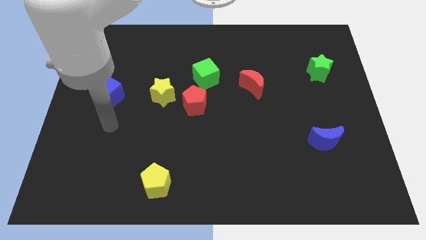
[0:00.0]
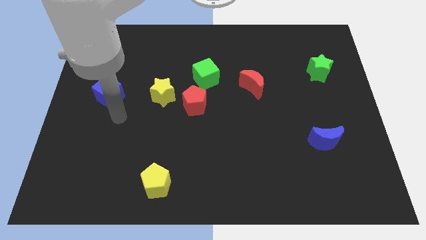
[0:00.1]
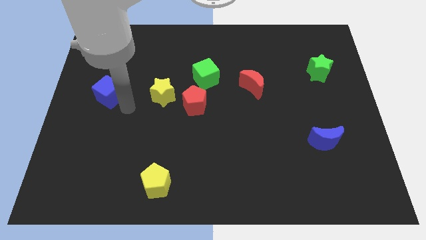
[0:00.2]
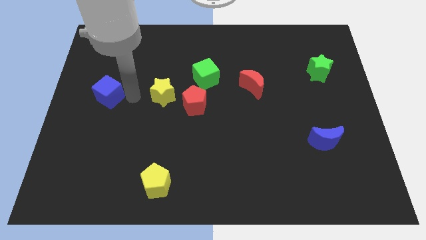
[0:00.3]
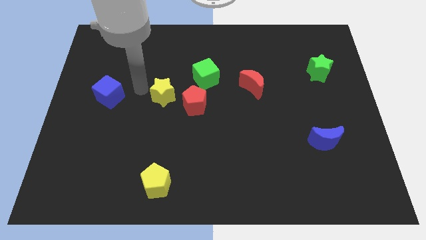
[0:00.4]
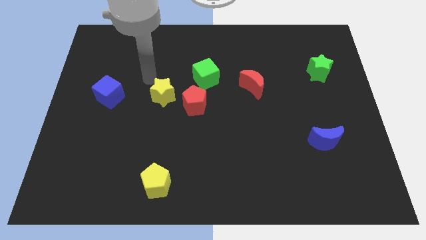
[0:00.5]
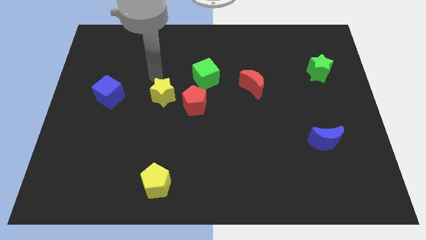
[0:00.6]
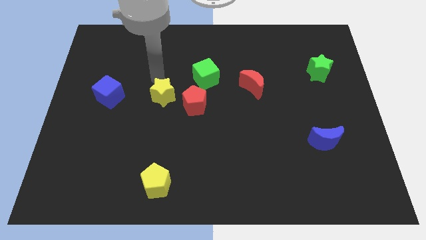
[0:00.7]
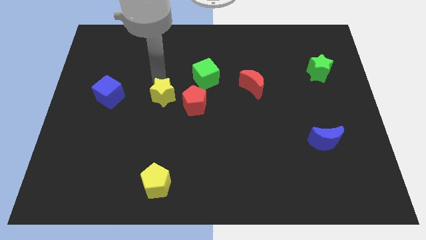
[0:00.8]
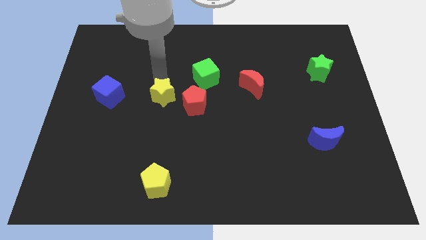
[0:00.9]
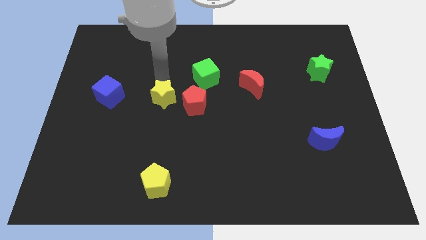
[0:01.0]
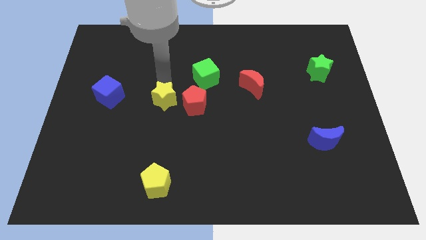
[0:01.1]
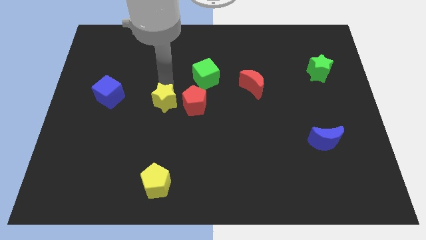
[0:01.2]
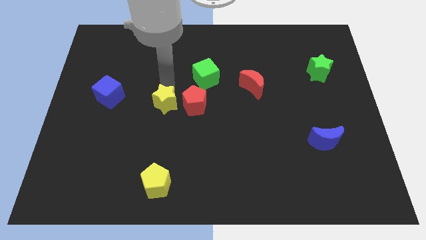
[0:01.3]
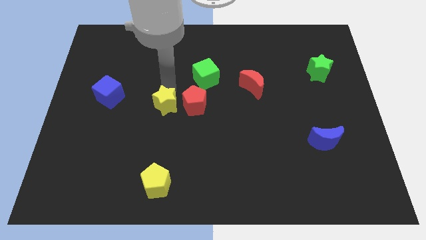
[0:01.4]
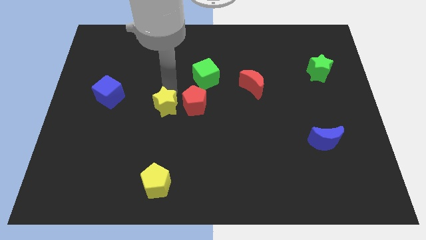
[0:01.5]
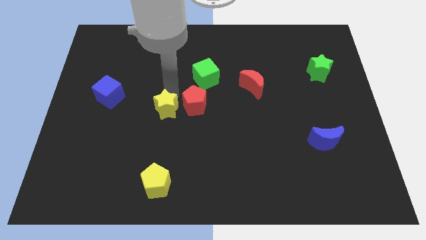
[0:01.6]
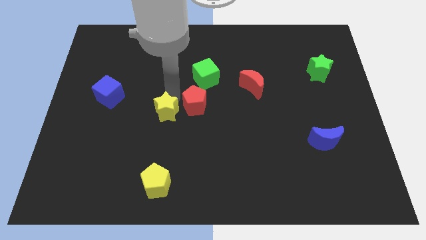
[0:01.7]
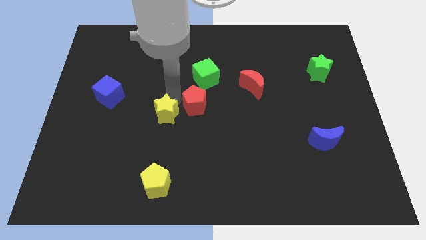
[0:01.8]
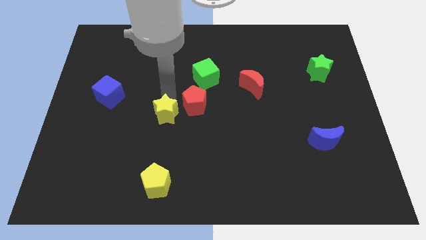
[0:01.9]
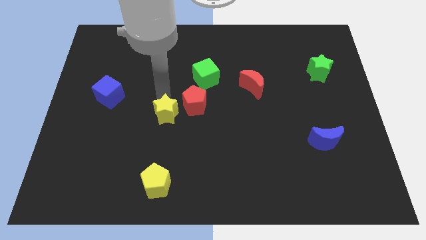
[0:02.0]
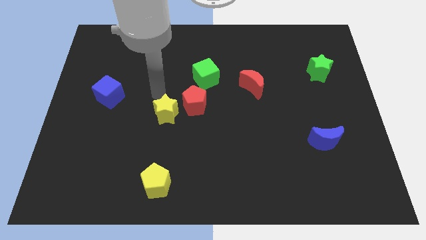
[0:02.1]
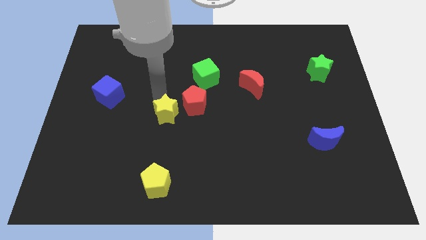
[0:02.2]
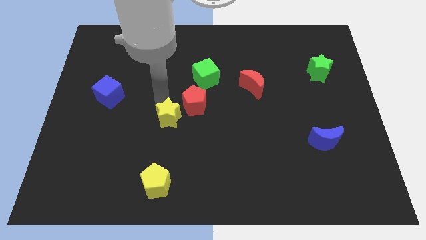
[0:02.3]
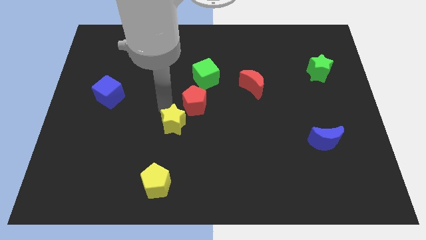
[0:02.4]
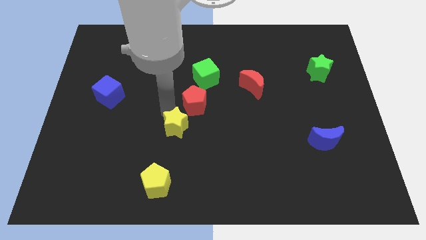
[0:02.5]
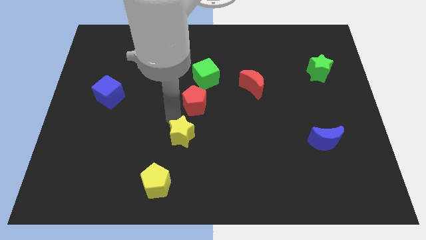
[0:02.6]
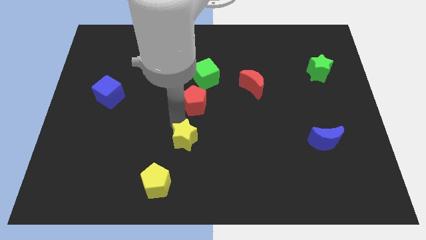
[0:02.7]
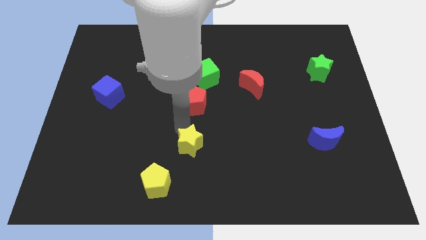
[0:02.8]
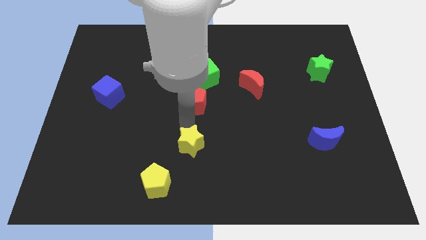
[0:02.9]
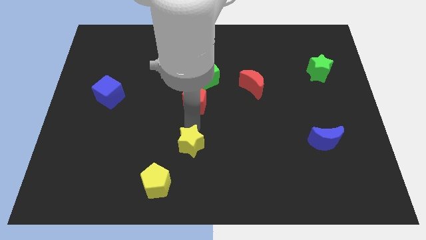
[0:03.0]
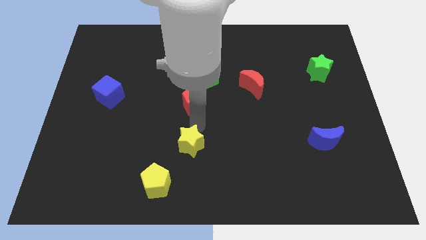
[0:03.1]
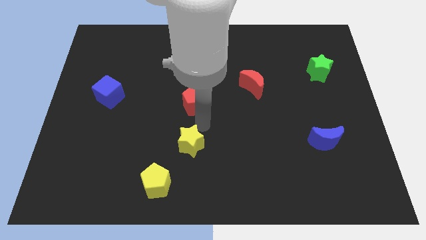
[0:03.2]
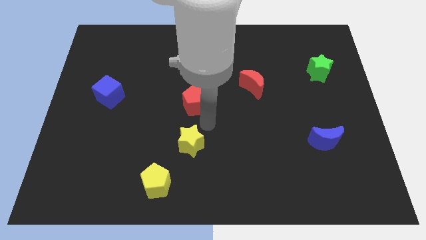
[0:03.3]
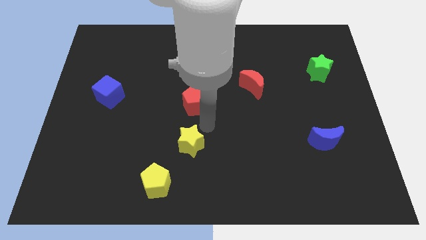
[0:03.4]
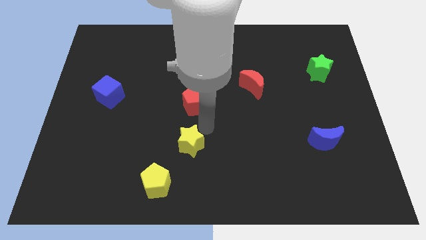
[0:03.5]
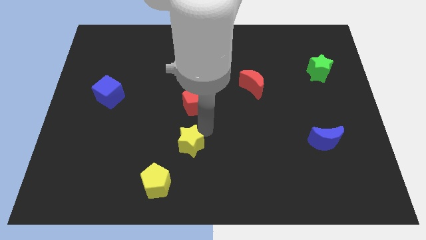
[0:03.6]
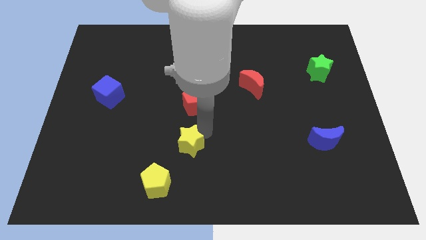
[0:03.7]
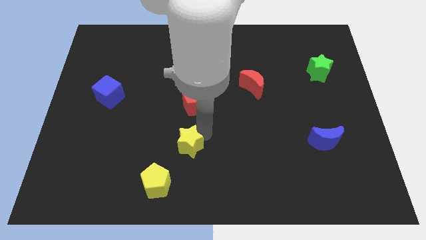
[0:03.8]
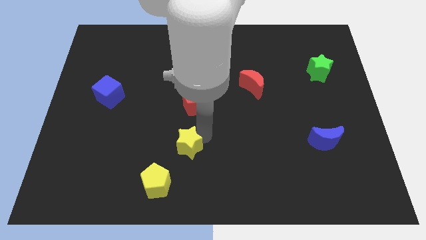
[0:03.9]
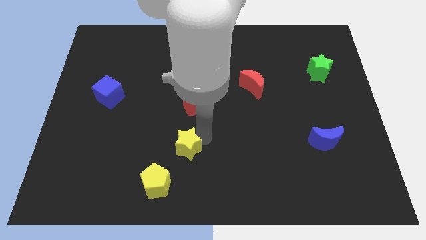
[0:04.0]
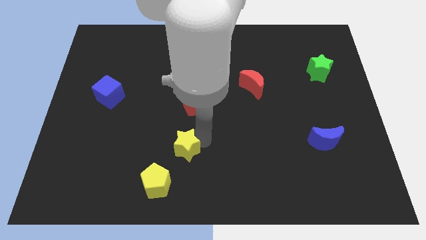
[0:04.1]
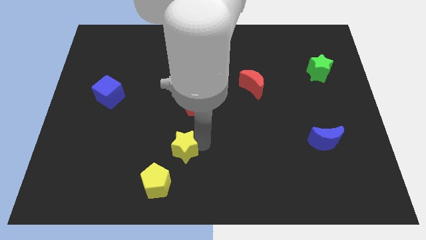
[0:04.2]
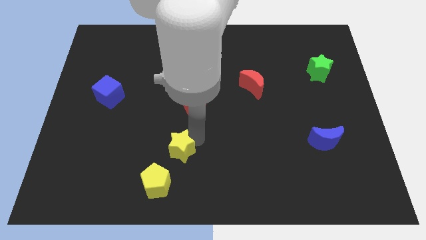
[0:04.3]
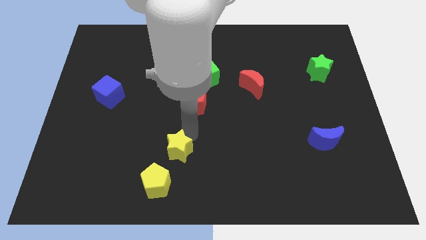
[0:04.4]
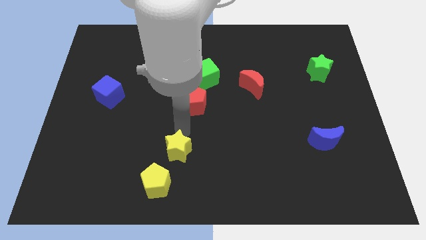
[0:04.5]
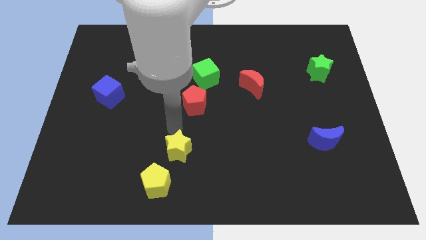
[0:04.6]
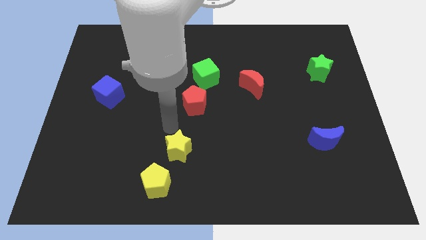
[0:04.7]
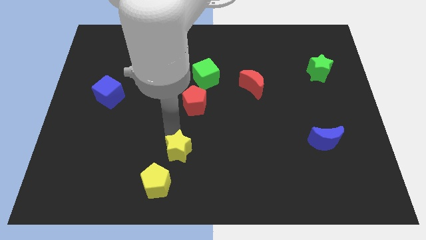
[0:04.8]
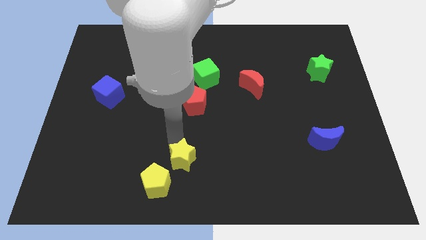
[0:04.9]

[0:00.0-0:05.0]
put the yellow star to the bottom

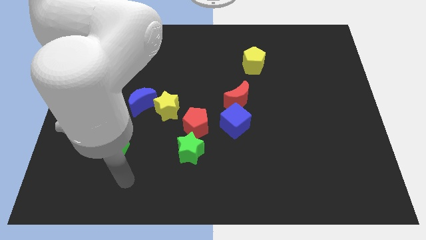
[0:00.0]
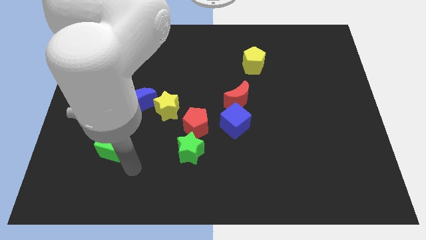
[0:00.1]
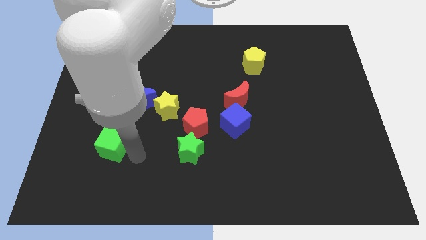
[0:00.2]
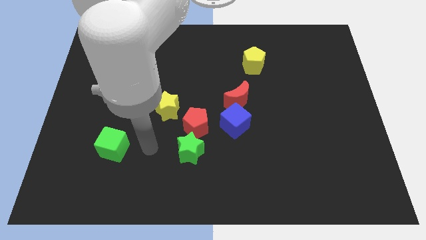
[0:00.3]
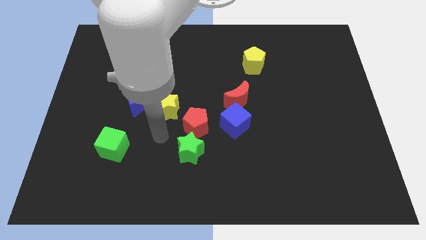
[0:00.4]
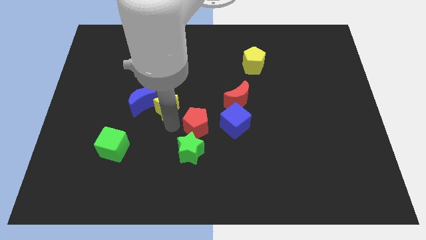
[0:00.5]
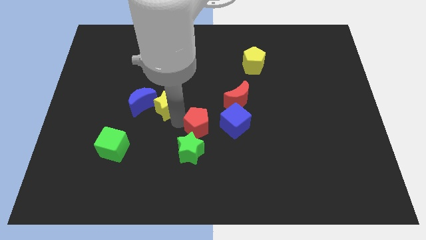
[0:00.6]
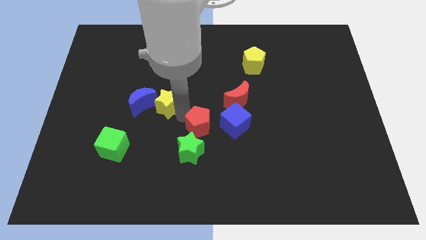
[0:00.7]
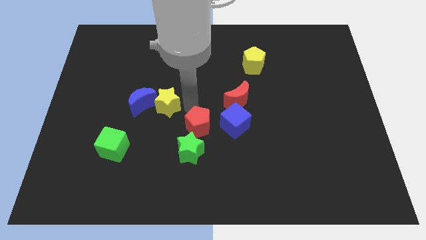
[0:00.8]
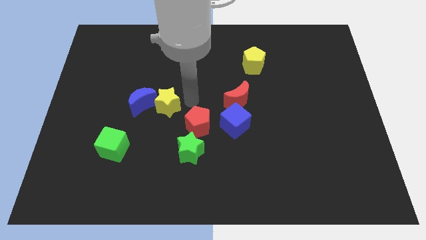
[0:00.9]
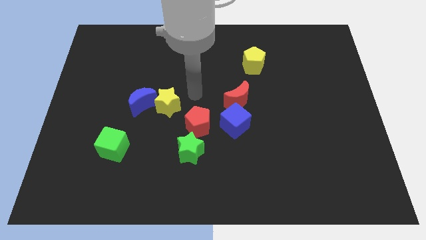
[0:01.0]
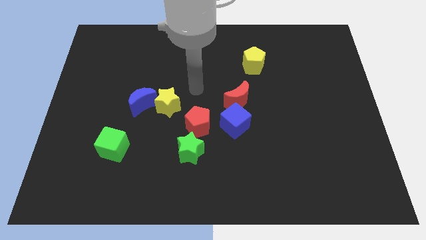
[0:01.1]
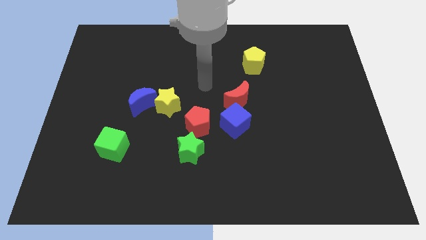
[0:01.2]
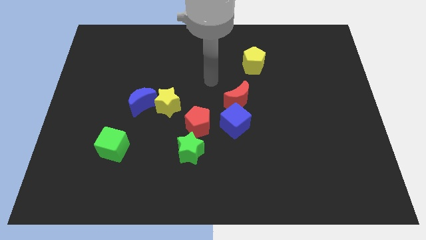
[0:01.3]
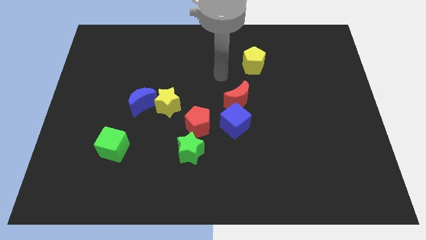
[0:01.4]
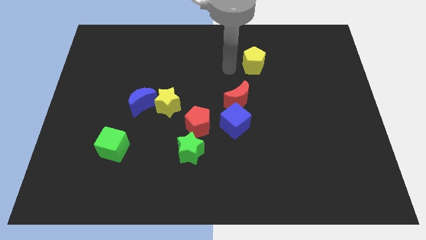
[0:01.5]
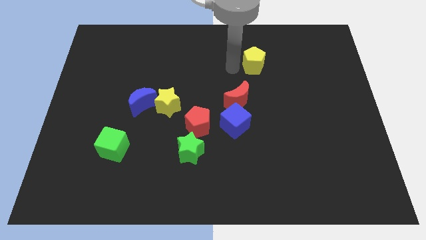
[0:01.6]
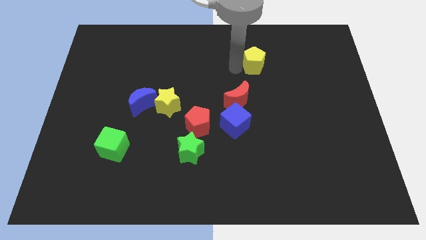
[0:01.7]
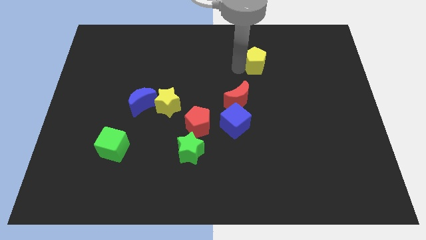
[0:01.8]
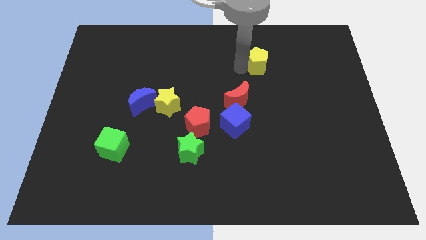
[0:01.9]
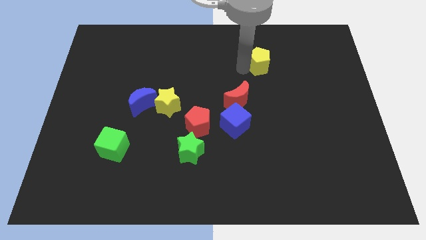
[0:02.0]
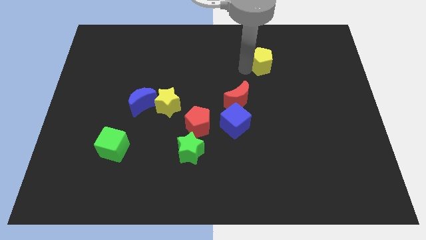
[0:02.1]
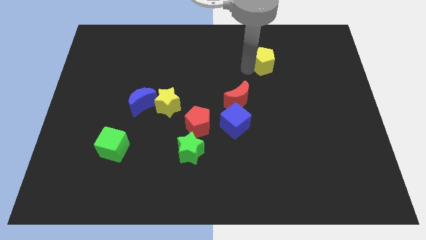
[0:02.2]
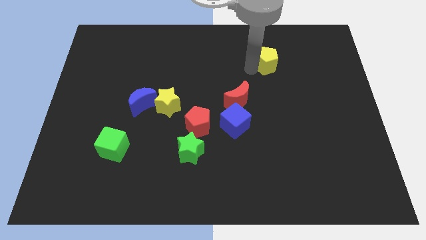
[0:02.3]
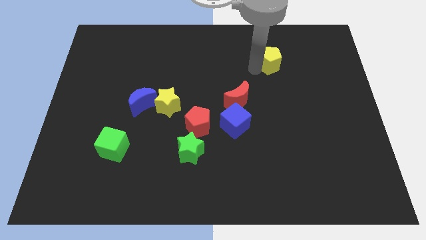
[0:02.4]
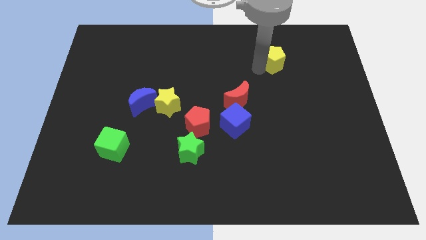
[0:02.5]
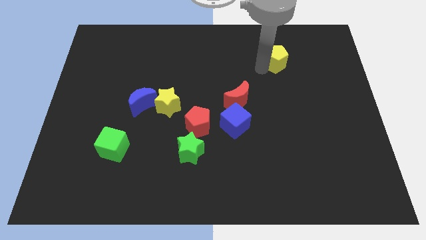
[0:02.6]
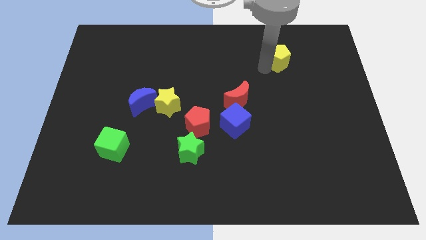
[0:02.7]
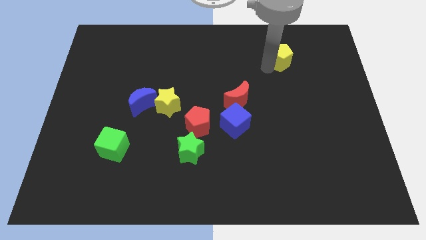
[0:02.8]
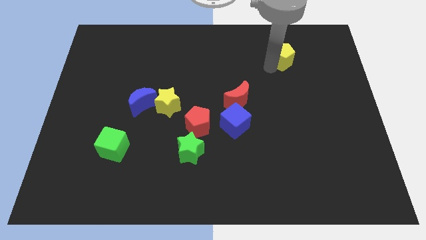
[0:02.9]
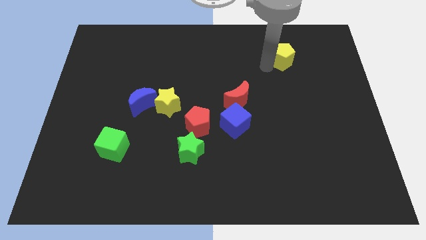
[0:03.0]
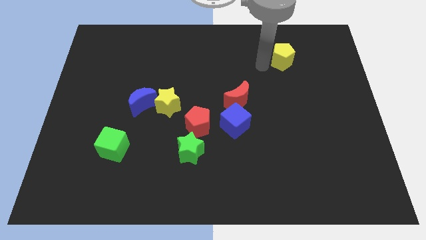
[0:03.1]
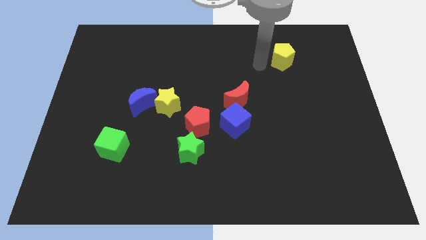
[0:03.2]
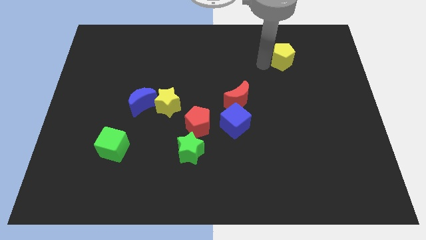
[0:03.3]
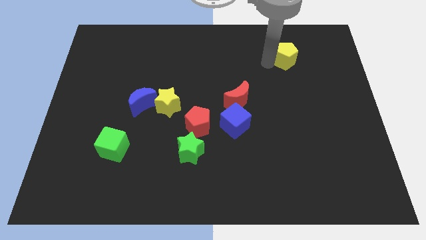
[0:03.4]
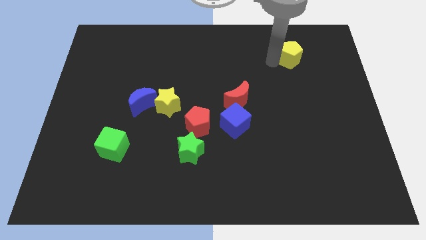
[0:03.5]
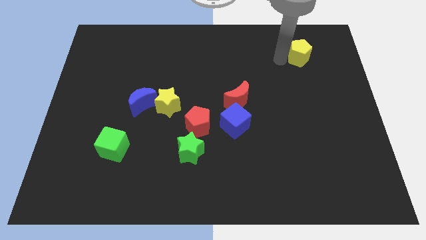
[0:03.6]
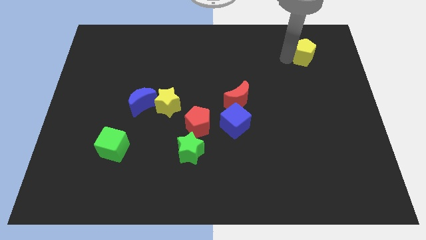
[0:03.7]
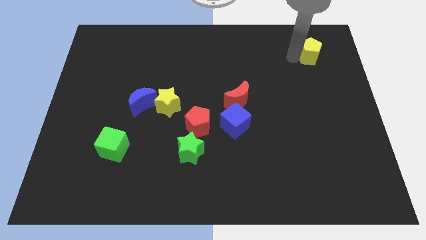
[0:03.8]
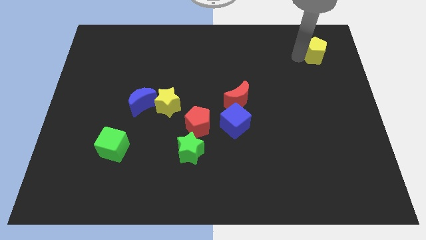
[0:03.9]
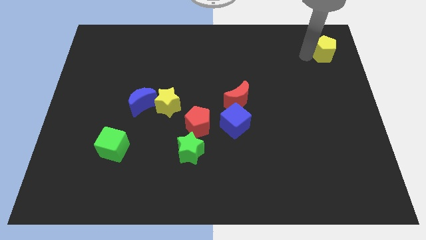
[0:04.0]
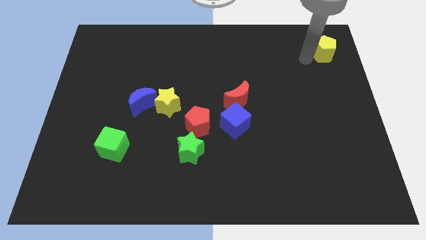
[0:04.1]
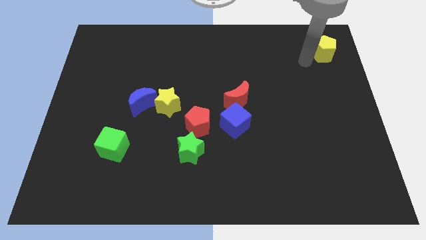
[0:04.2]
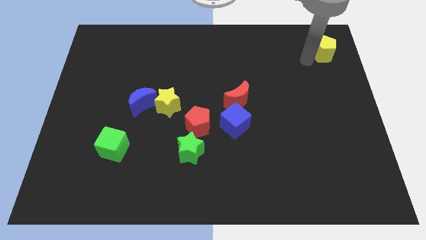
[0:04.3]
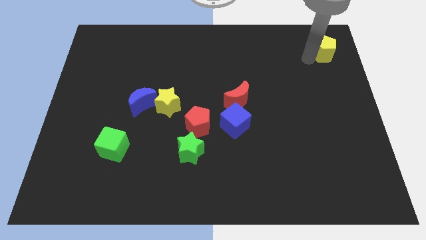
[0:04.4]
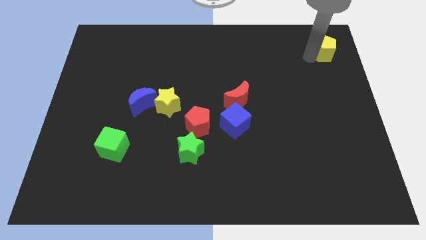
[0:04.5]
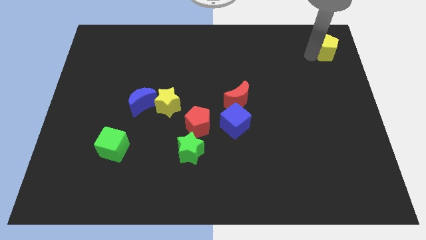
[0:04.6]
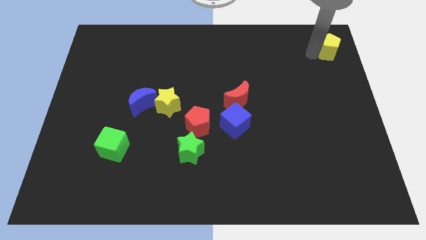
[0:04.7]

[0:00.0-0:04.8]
slide the yellow pentagon to the top right
